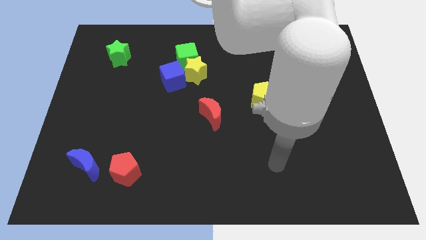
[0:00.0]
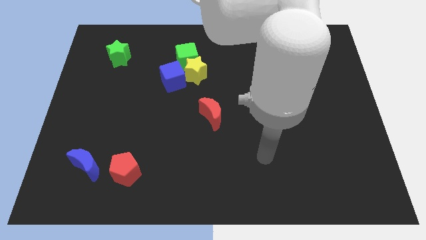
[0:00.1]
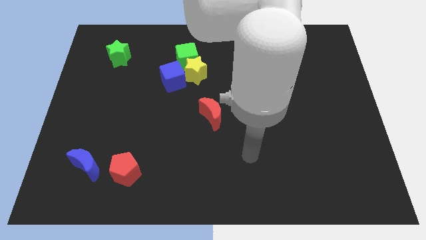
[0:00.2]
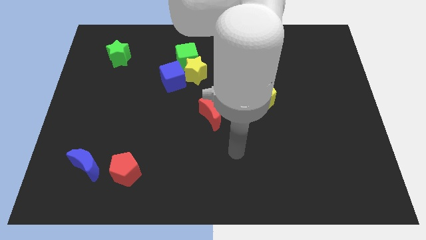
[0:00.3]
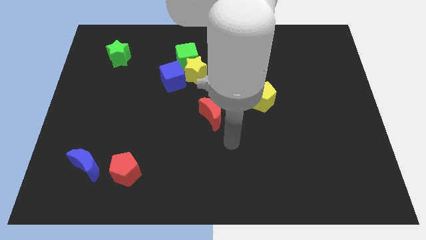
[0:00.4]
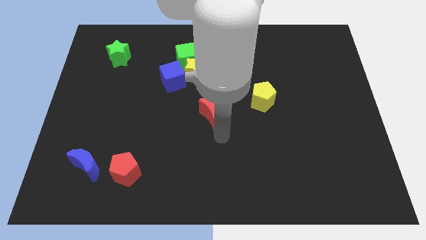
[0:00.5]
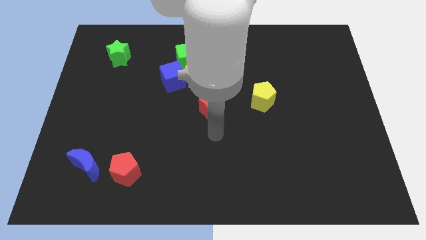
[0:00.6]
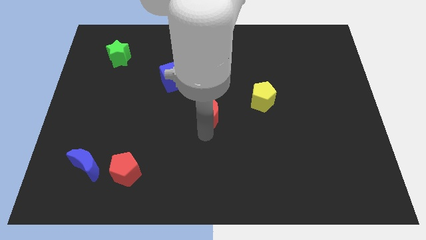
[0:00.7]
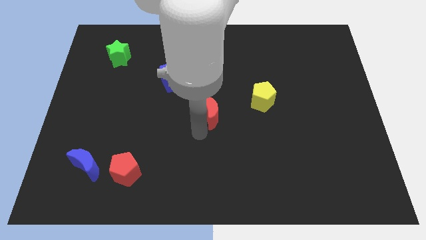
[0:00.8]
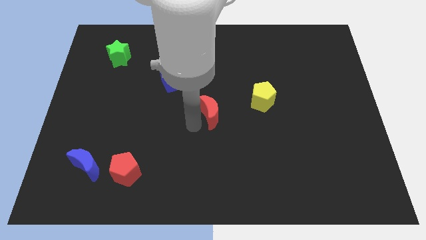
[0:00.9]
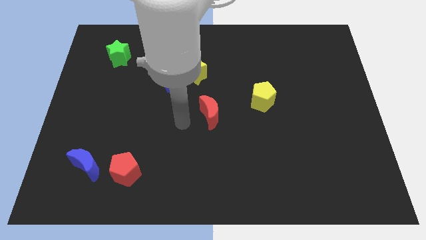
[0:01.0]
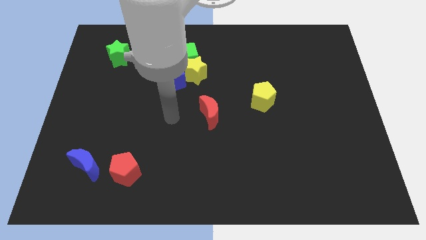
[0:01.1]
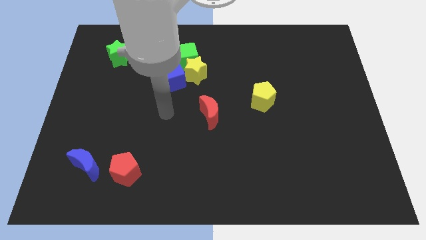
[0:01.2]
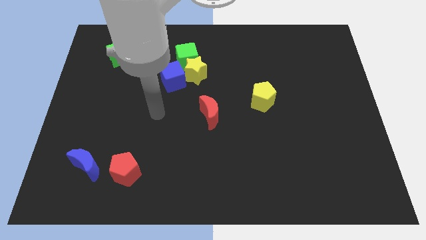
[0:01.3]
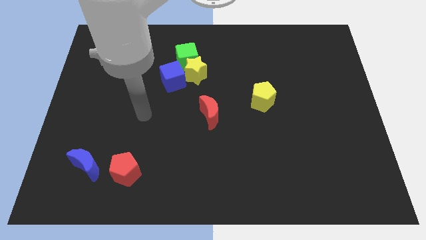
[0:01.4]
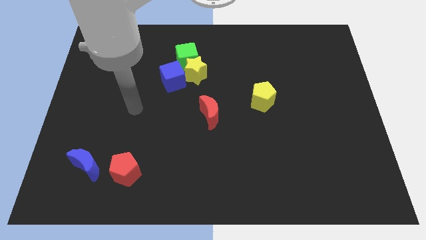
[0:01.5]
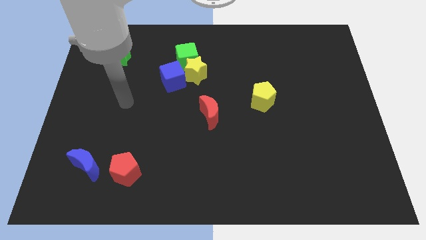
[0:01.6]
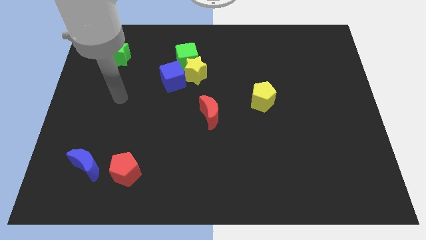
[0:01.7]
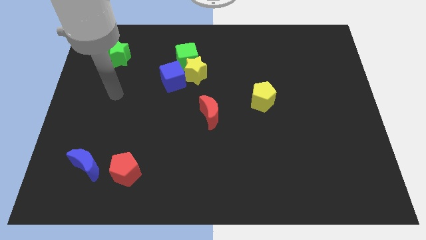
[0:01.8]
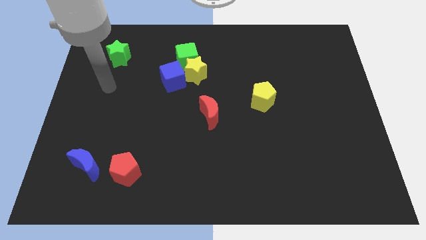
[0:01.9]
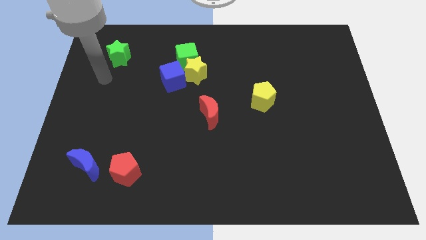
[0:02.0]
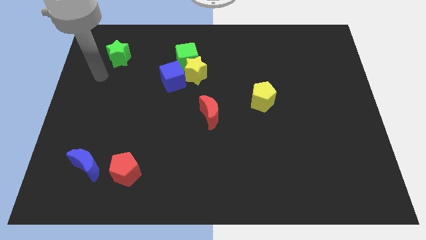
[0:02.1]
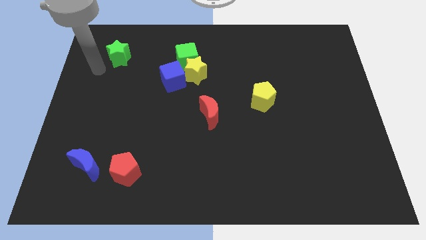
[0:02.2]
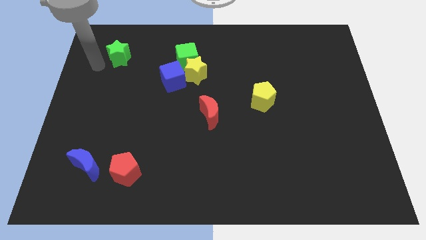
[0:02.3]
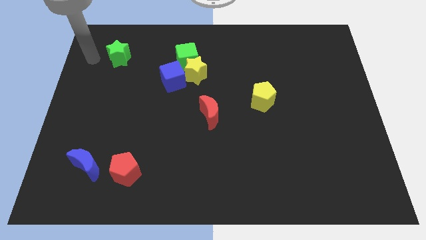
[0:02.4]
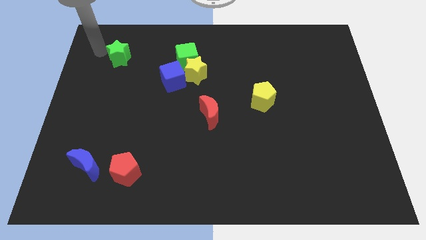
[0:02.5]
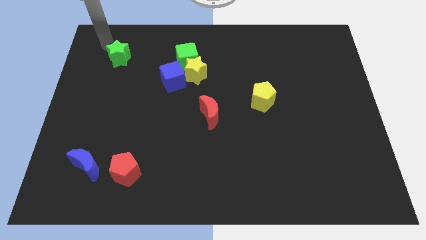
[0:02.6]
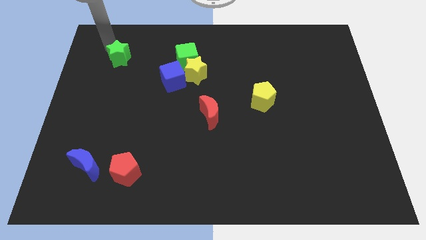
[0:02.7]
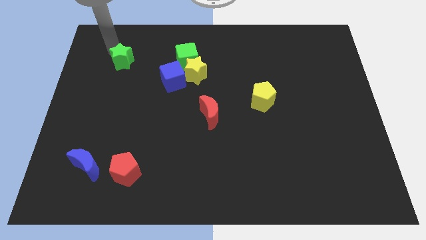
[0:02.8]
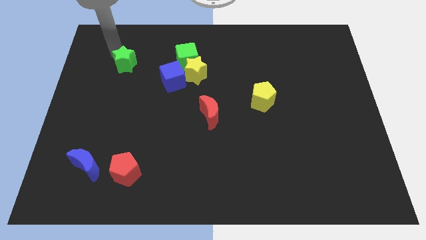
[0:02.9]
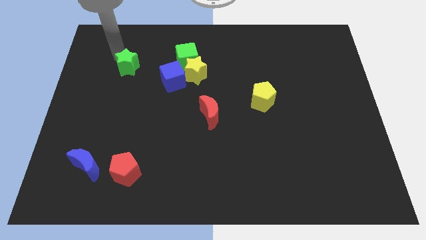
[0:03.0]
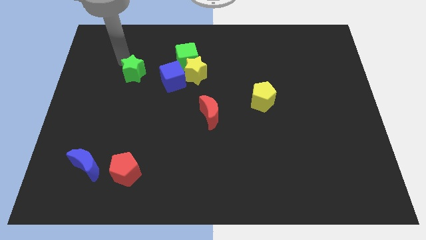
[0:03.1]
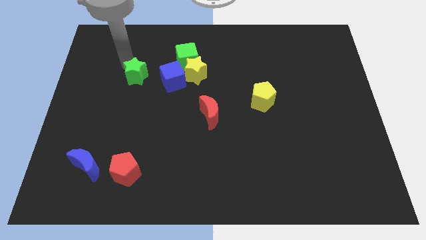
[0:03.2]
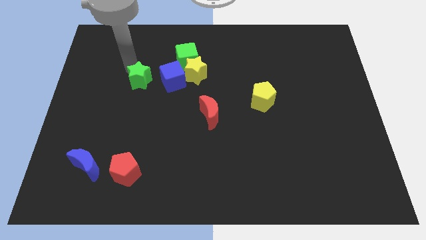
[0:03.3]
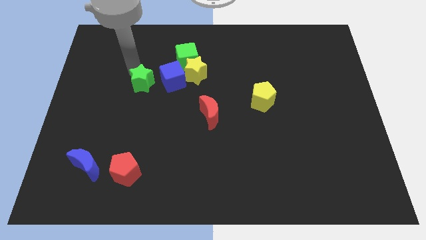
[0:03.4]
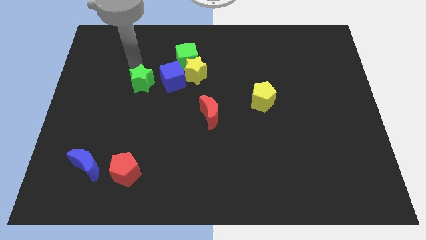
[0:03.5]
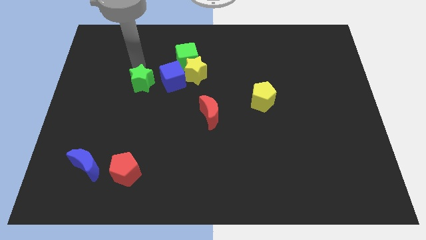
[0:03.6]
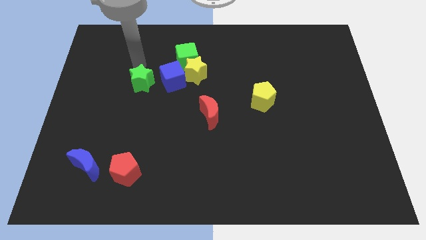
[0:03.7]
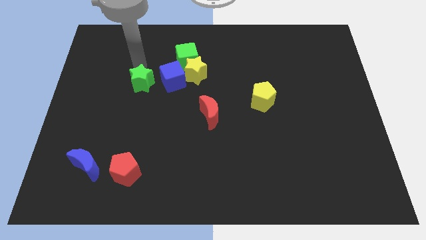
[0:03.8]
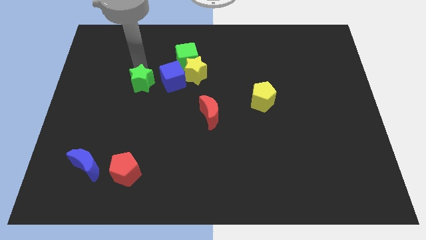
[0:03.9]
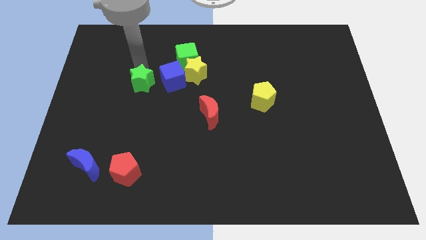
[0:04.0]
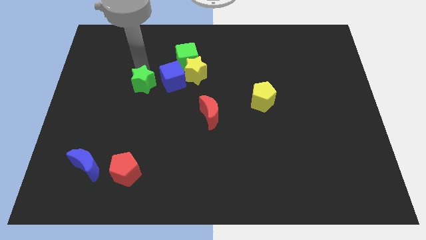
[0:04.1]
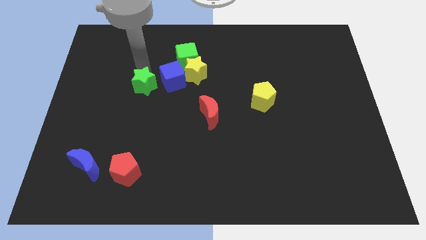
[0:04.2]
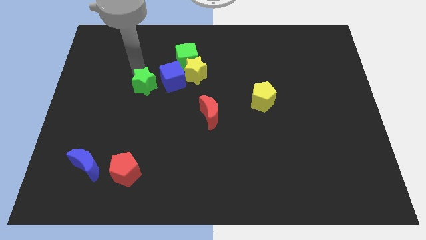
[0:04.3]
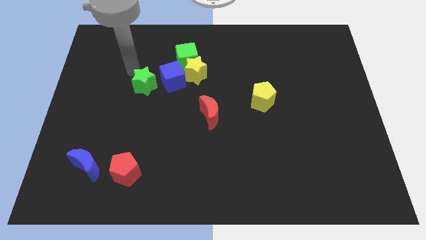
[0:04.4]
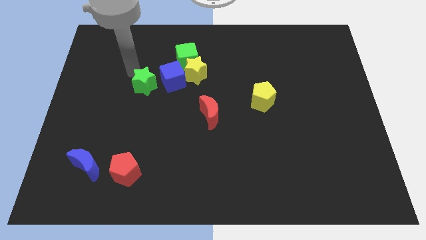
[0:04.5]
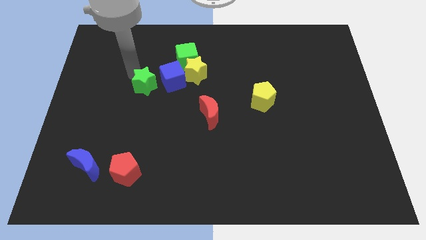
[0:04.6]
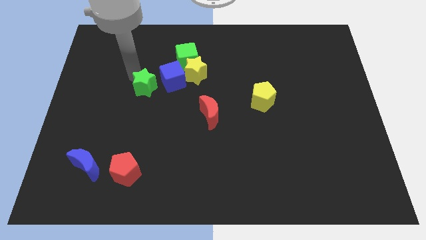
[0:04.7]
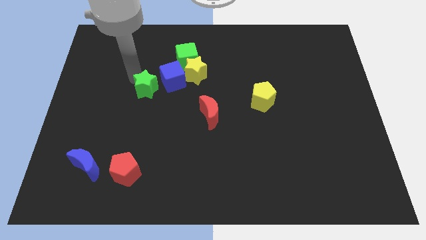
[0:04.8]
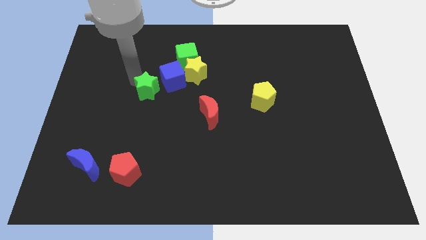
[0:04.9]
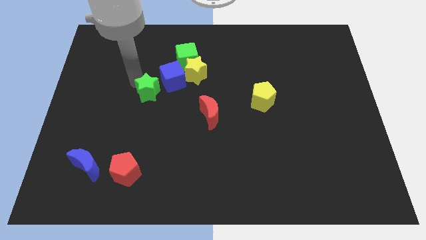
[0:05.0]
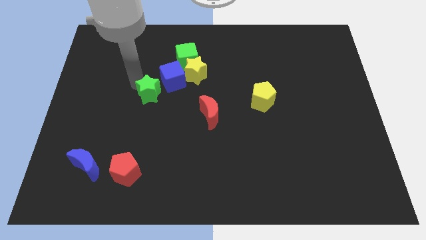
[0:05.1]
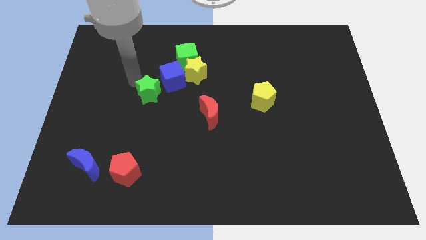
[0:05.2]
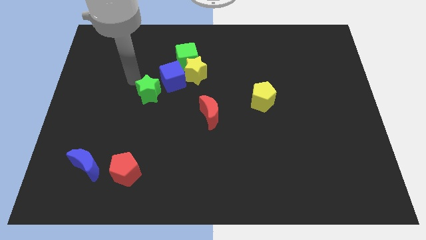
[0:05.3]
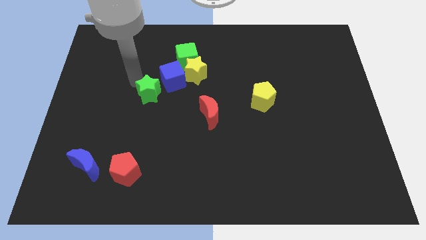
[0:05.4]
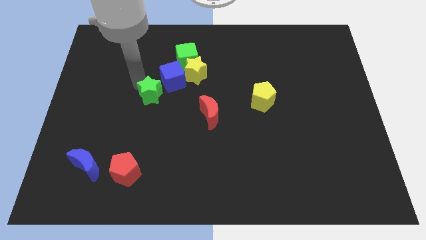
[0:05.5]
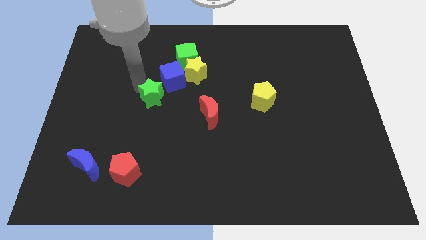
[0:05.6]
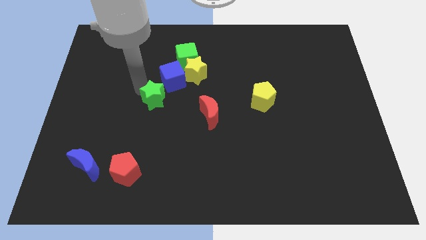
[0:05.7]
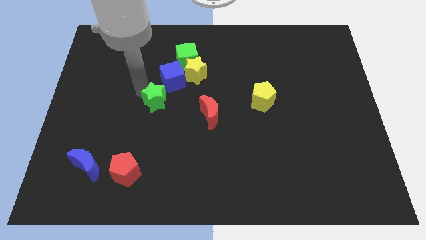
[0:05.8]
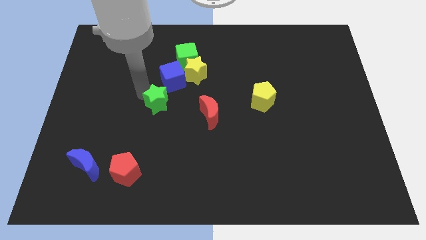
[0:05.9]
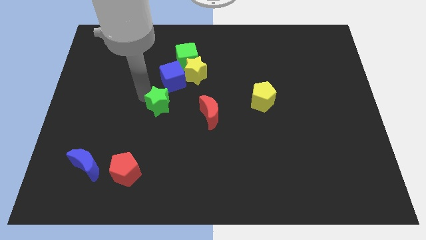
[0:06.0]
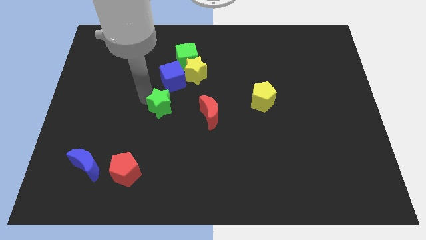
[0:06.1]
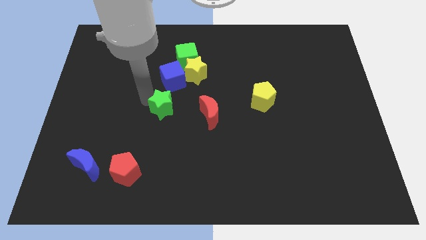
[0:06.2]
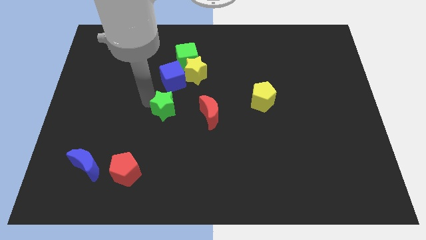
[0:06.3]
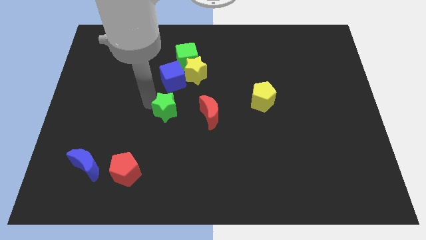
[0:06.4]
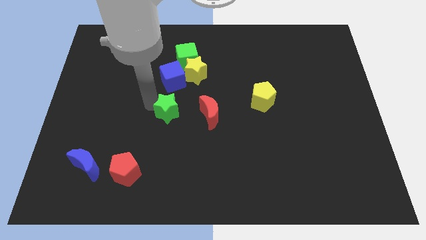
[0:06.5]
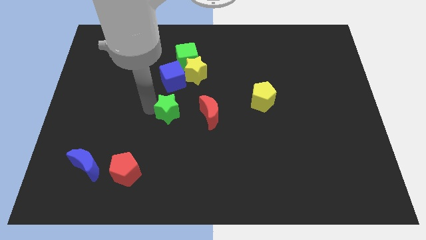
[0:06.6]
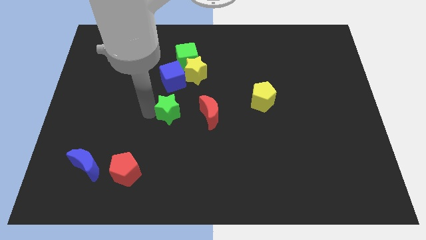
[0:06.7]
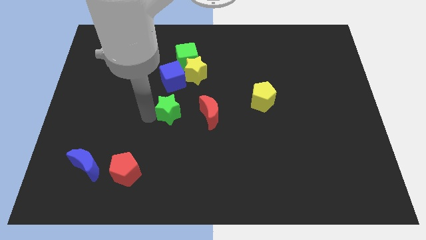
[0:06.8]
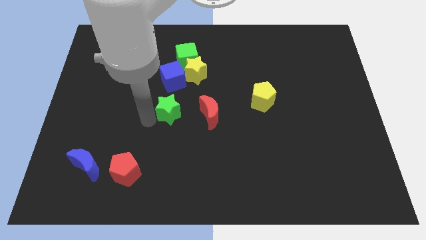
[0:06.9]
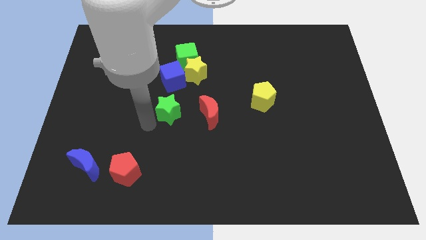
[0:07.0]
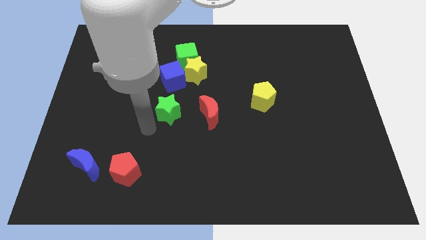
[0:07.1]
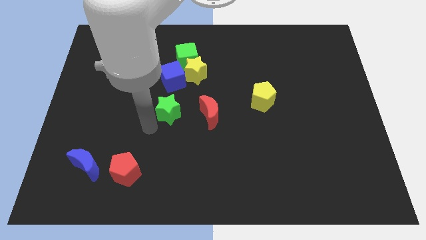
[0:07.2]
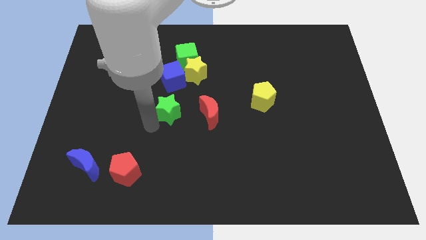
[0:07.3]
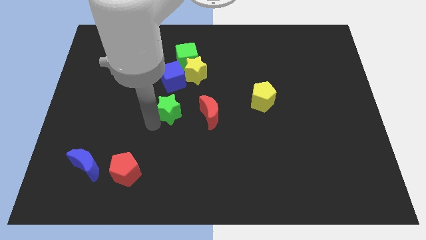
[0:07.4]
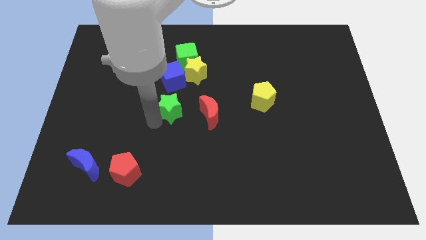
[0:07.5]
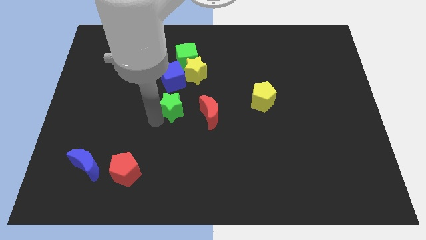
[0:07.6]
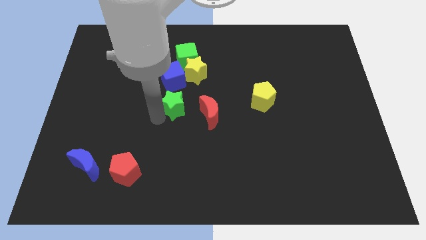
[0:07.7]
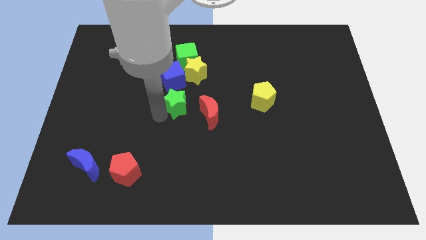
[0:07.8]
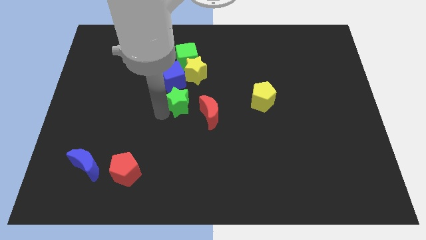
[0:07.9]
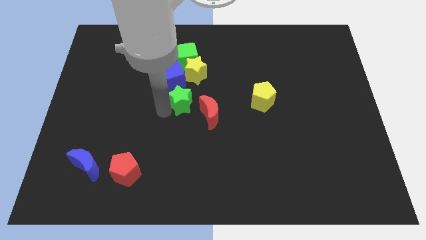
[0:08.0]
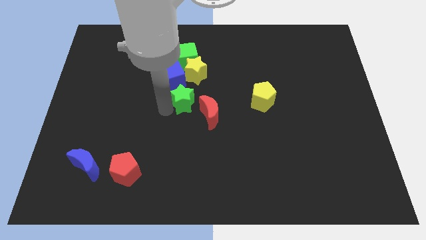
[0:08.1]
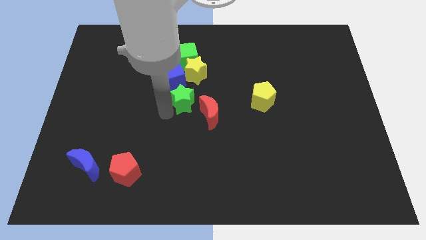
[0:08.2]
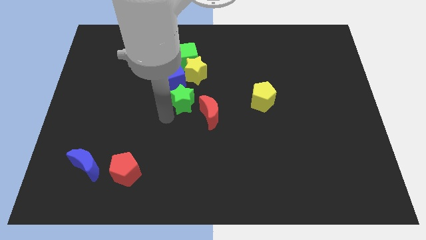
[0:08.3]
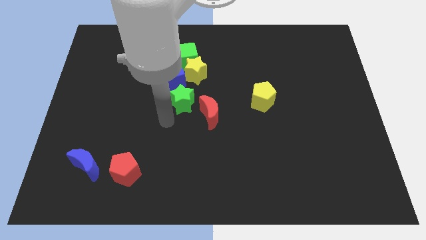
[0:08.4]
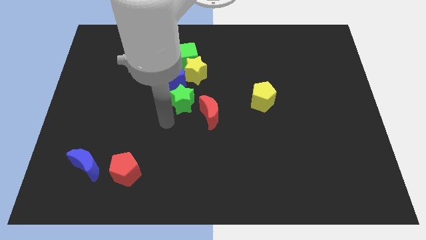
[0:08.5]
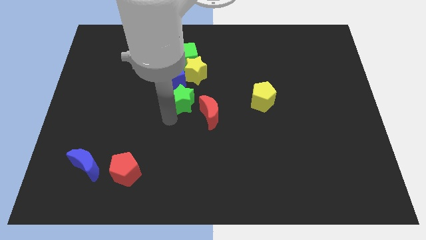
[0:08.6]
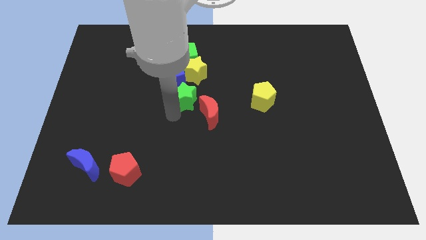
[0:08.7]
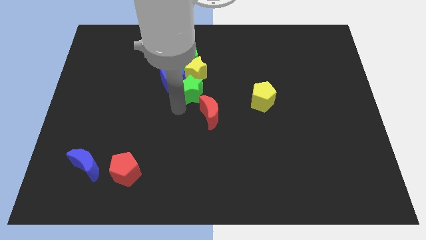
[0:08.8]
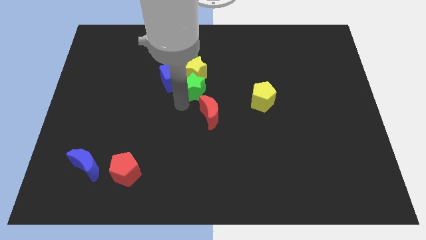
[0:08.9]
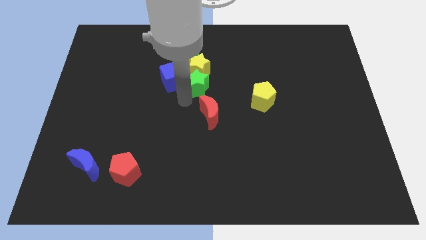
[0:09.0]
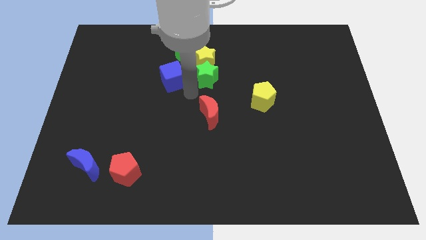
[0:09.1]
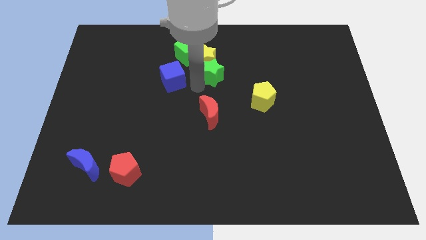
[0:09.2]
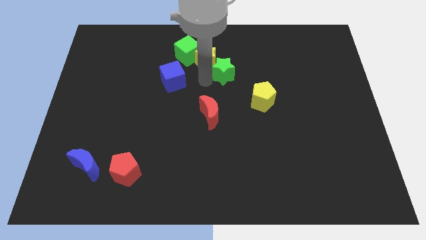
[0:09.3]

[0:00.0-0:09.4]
slide the green star right of the yellow star
